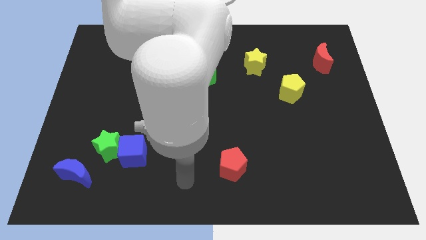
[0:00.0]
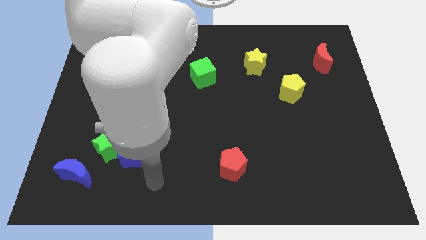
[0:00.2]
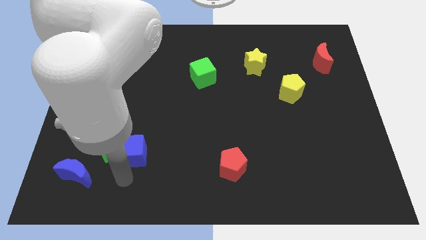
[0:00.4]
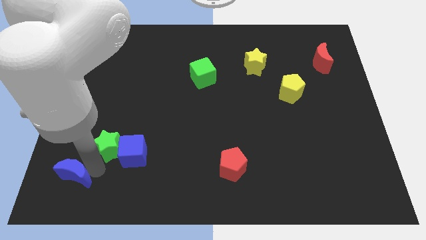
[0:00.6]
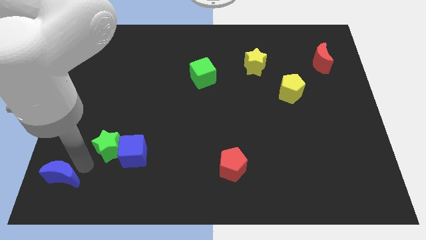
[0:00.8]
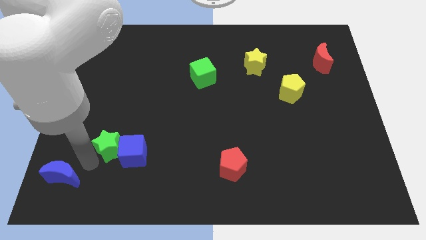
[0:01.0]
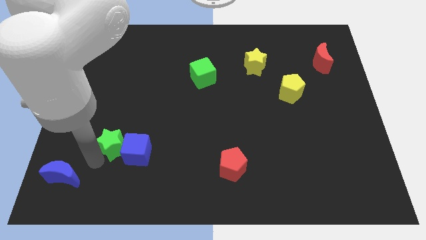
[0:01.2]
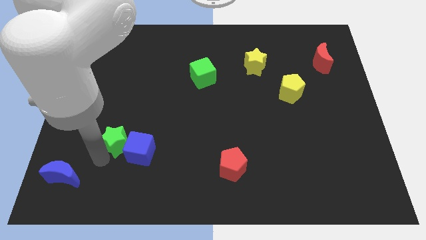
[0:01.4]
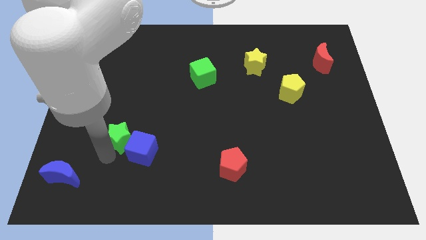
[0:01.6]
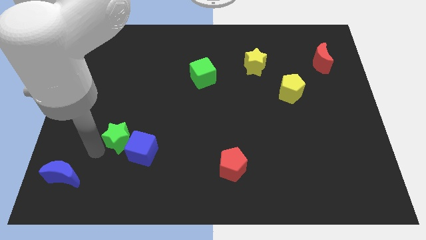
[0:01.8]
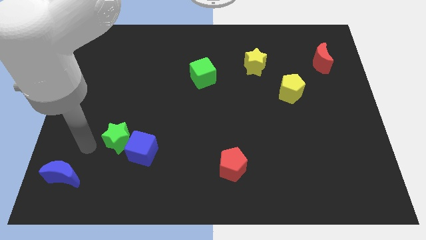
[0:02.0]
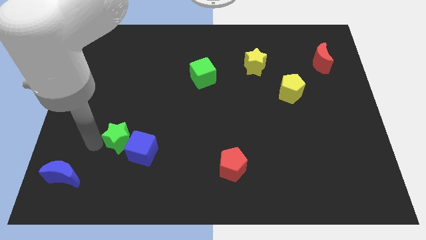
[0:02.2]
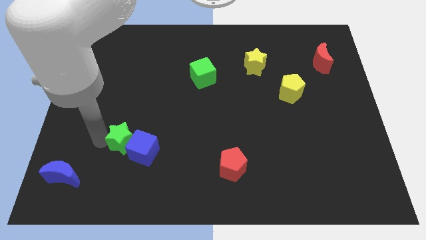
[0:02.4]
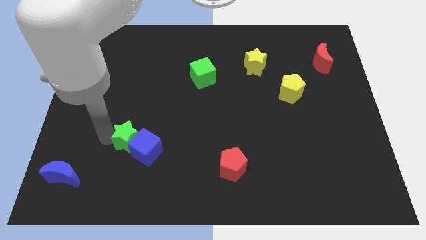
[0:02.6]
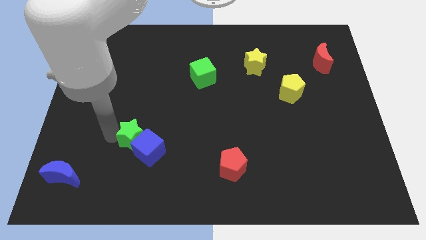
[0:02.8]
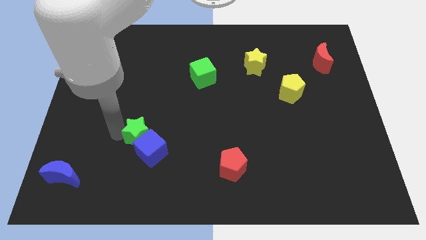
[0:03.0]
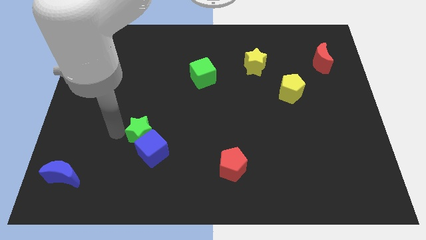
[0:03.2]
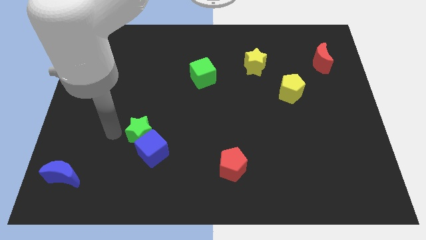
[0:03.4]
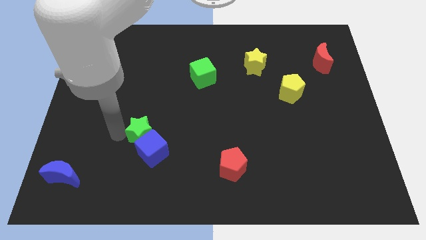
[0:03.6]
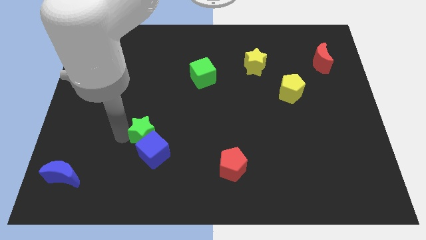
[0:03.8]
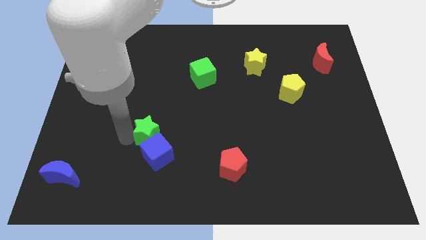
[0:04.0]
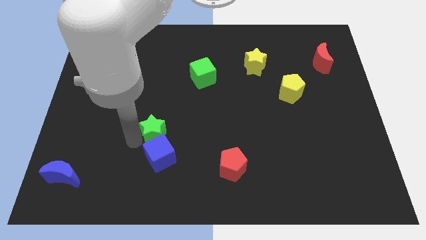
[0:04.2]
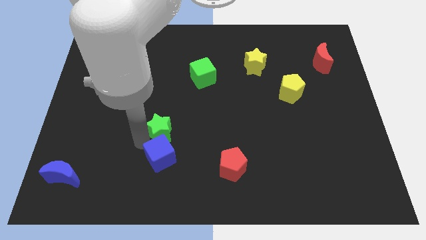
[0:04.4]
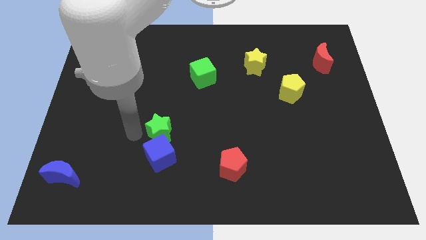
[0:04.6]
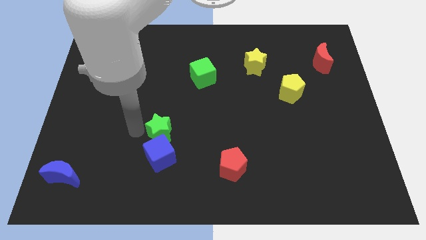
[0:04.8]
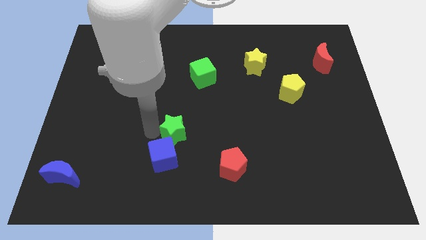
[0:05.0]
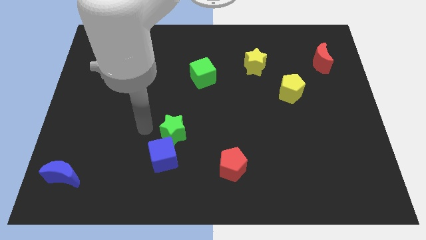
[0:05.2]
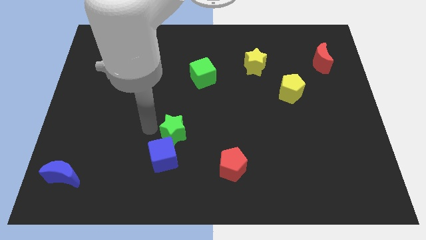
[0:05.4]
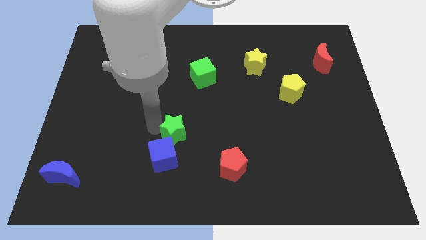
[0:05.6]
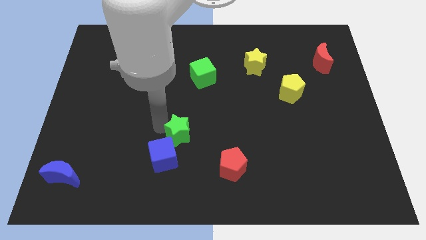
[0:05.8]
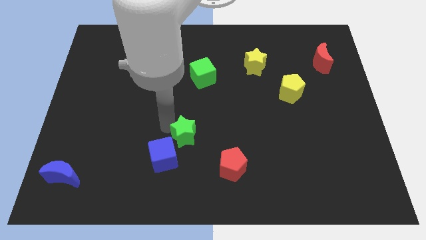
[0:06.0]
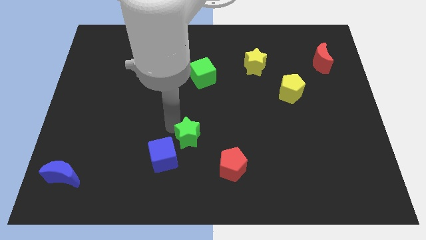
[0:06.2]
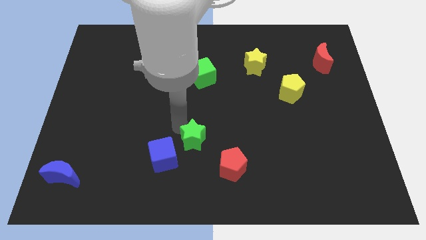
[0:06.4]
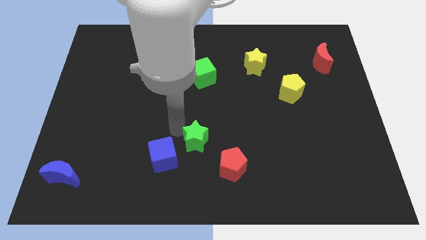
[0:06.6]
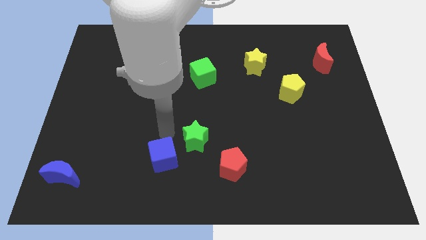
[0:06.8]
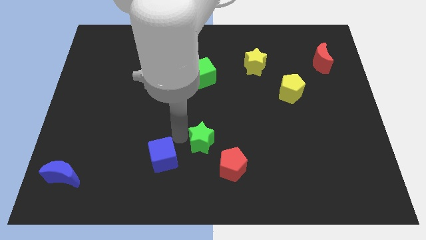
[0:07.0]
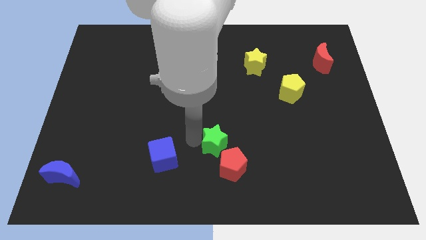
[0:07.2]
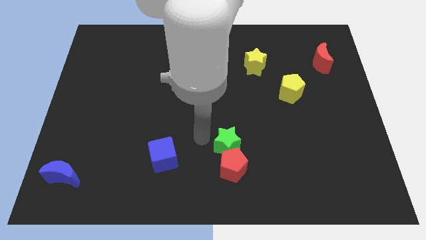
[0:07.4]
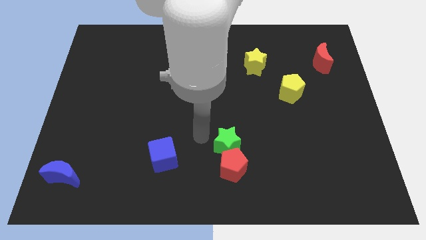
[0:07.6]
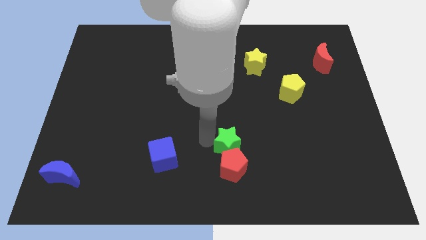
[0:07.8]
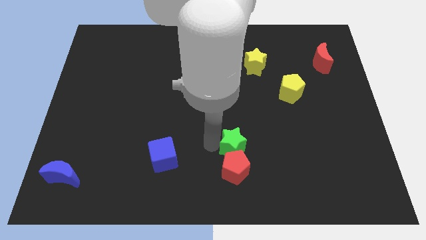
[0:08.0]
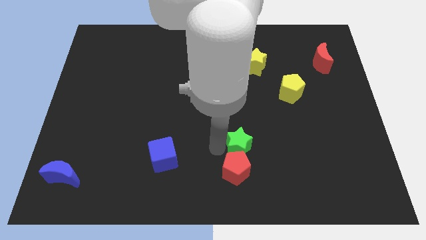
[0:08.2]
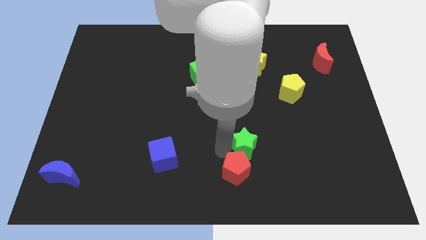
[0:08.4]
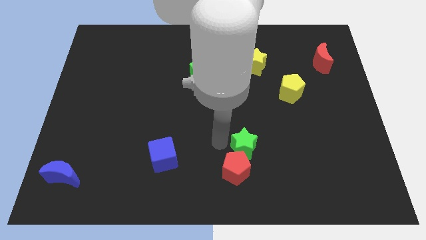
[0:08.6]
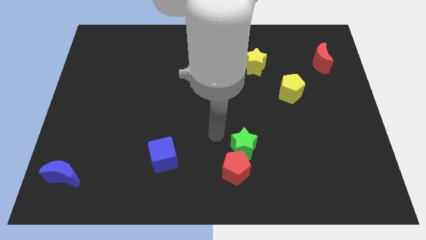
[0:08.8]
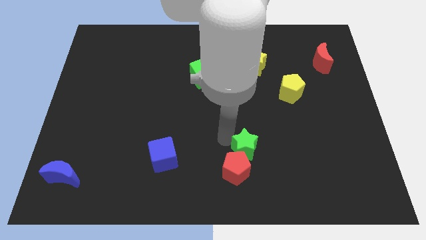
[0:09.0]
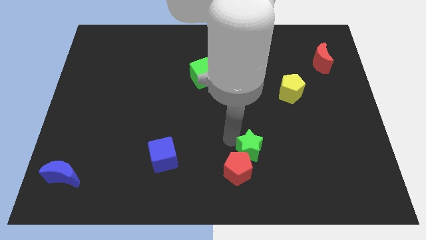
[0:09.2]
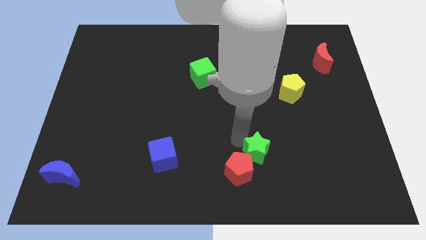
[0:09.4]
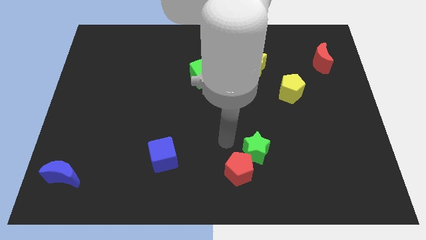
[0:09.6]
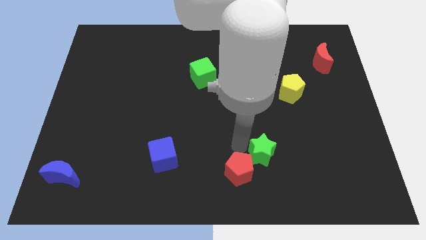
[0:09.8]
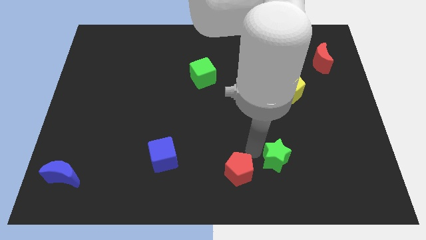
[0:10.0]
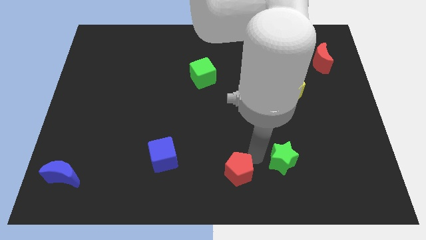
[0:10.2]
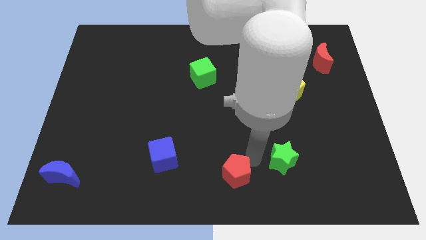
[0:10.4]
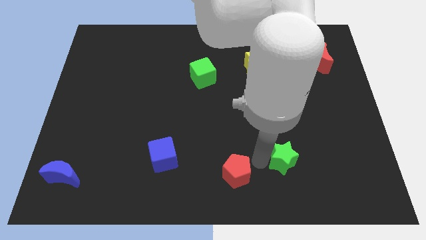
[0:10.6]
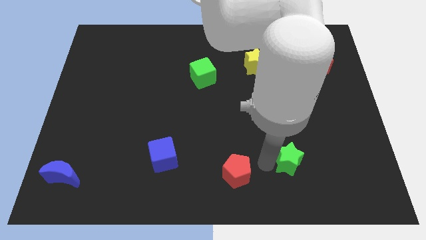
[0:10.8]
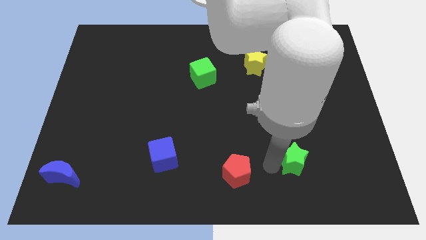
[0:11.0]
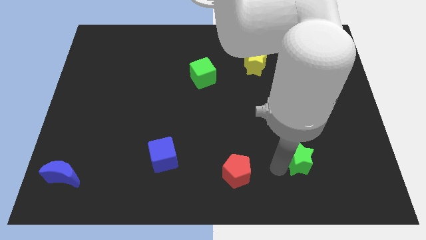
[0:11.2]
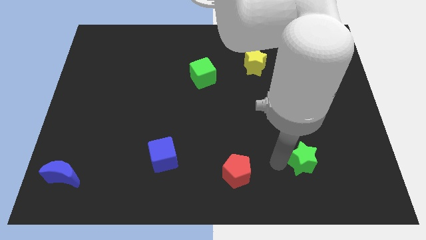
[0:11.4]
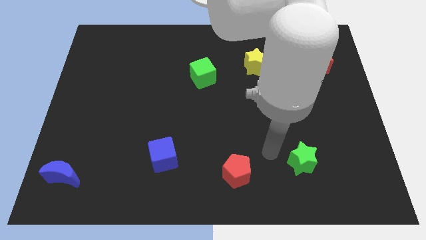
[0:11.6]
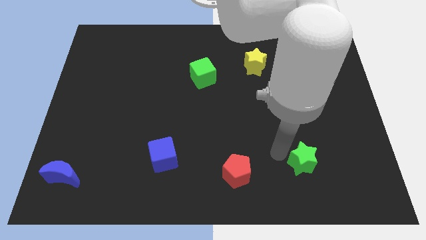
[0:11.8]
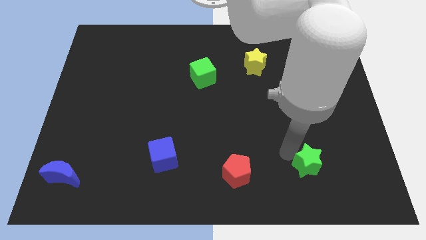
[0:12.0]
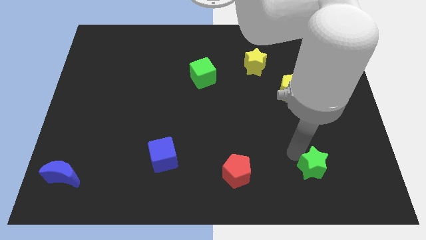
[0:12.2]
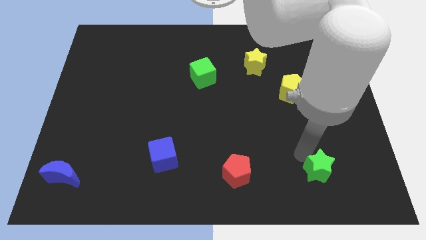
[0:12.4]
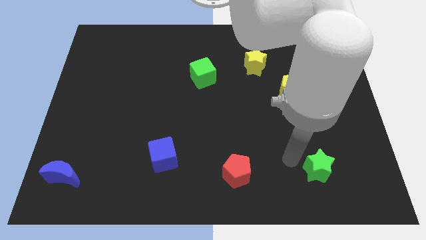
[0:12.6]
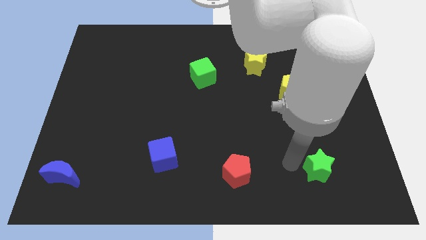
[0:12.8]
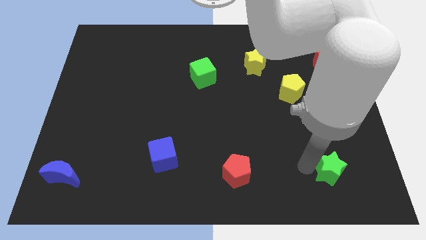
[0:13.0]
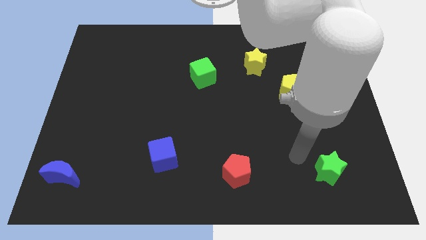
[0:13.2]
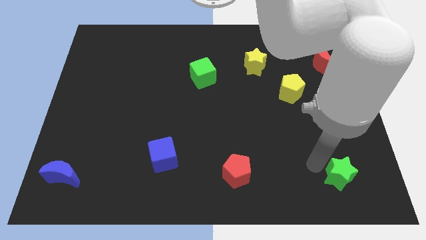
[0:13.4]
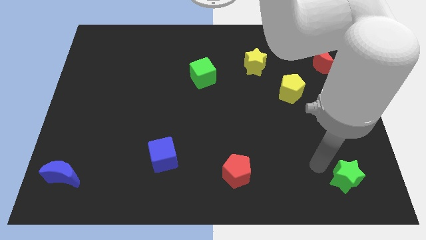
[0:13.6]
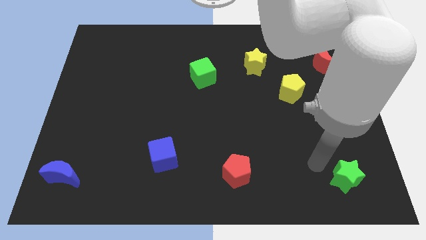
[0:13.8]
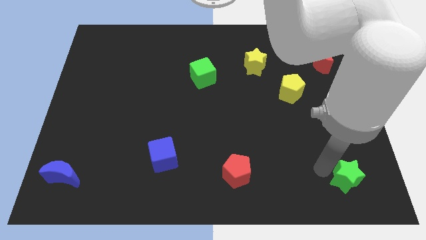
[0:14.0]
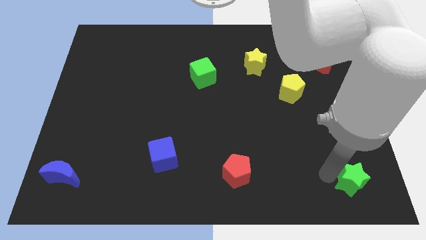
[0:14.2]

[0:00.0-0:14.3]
slide the green star to the bottom right of the board
